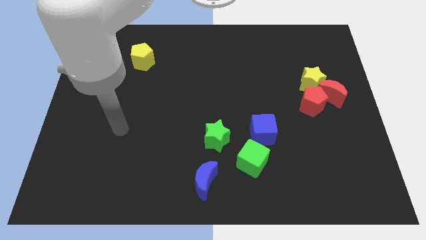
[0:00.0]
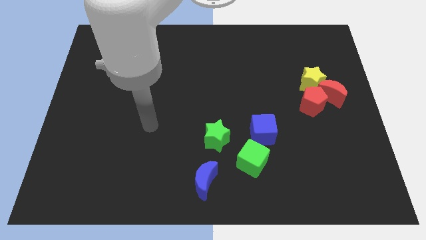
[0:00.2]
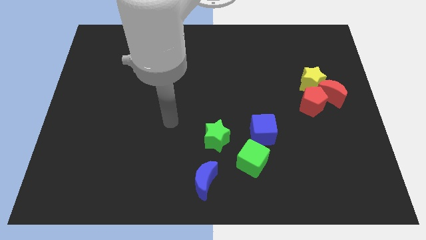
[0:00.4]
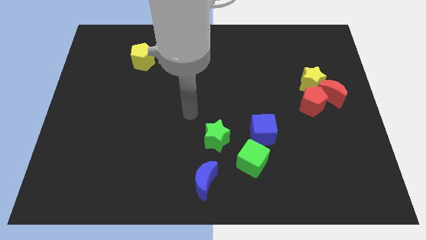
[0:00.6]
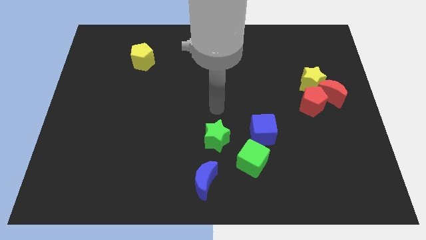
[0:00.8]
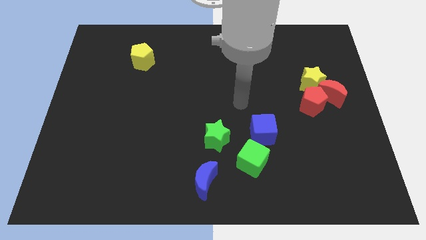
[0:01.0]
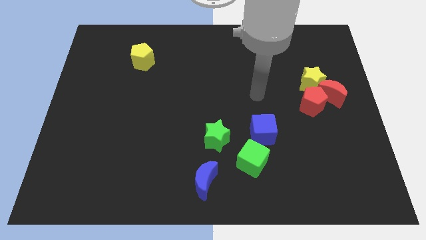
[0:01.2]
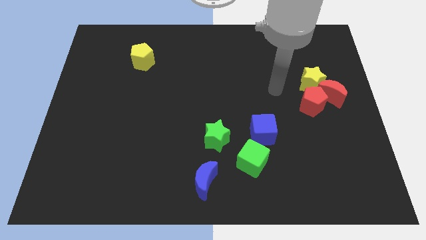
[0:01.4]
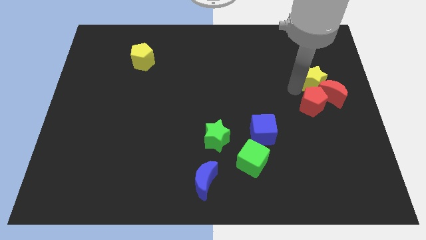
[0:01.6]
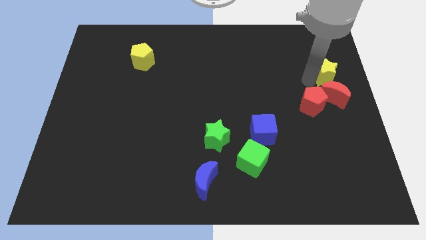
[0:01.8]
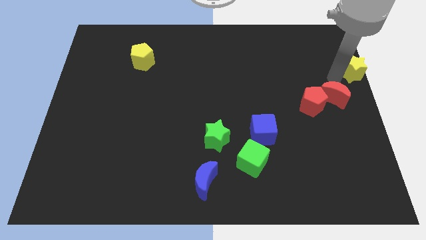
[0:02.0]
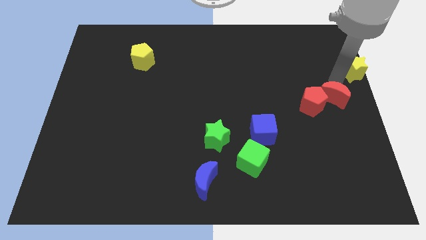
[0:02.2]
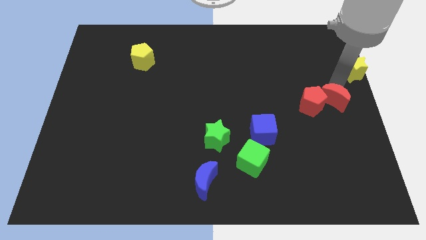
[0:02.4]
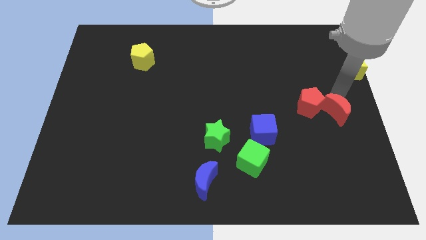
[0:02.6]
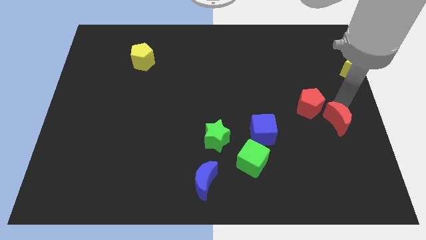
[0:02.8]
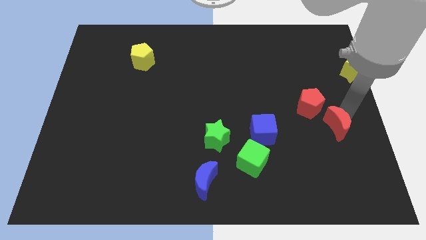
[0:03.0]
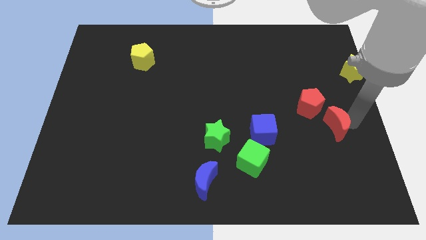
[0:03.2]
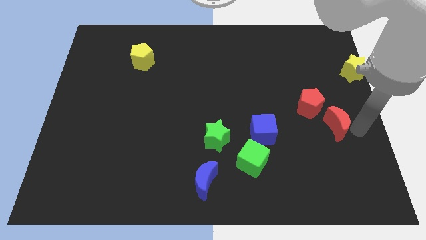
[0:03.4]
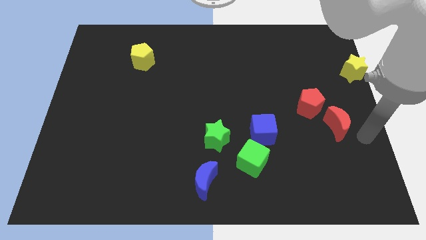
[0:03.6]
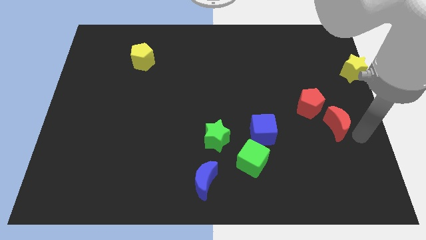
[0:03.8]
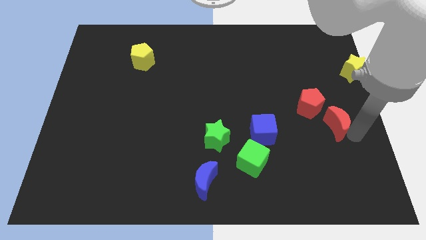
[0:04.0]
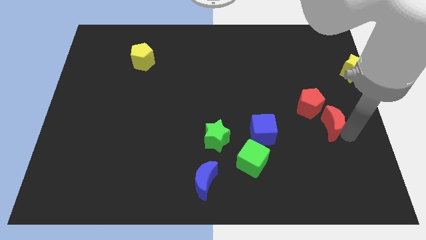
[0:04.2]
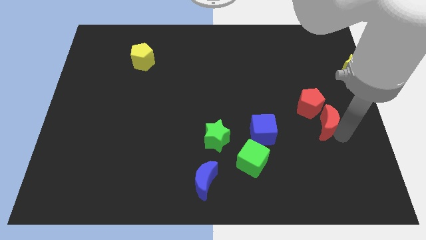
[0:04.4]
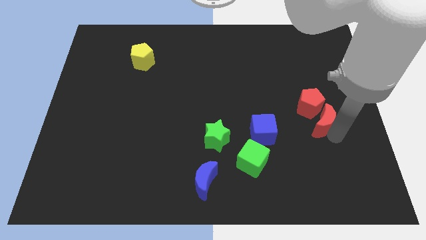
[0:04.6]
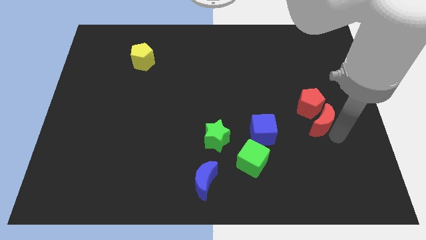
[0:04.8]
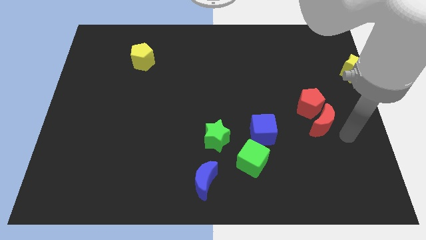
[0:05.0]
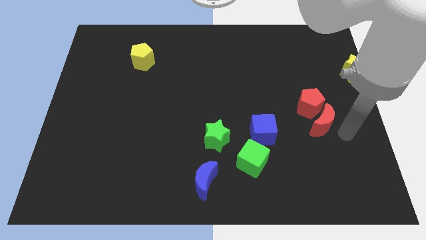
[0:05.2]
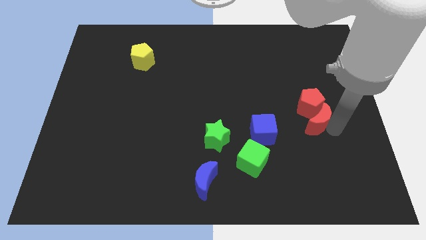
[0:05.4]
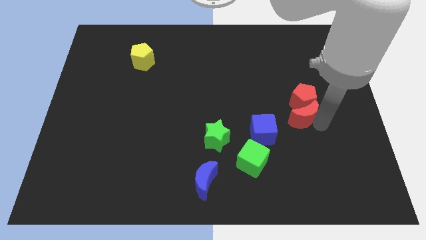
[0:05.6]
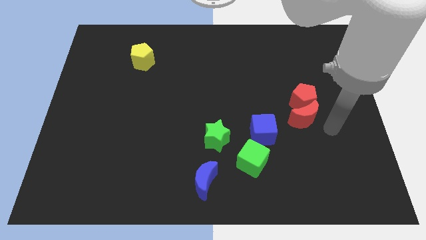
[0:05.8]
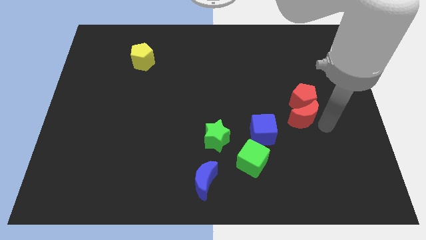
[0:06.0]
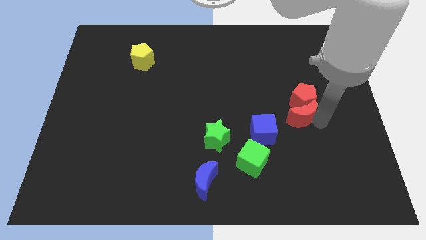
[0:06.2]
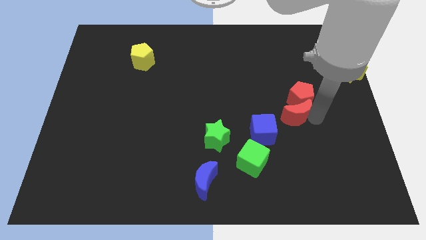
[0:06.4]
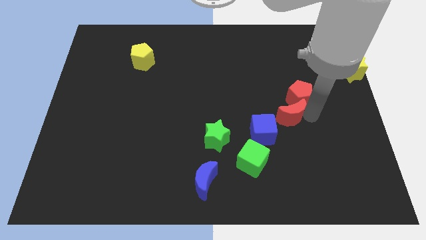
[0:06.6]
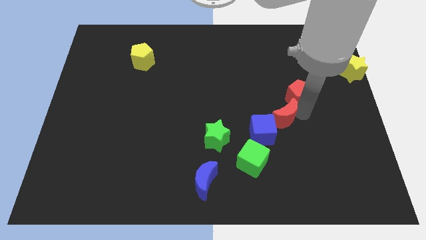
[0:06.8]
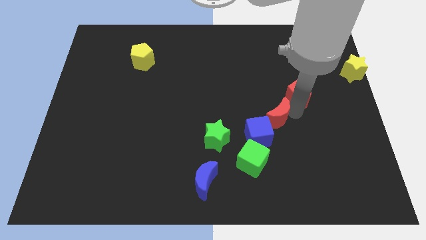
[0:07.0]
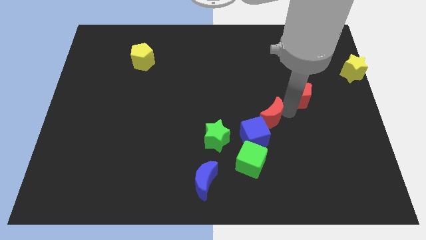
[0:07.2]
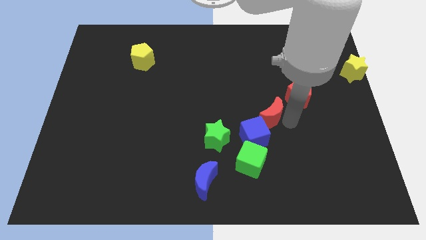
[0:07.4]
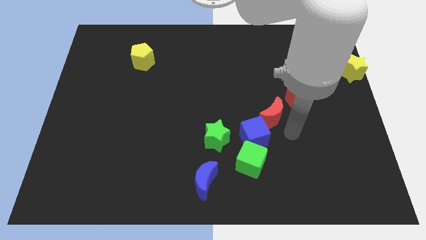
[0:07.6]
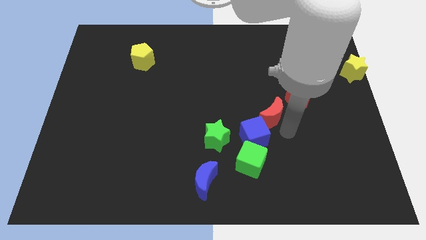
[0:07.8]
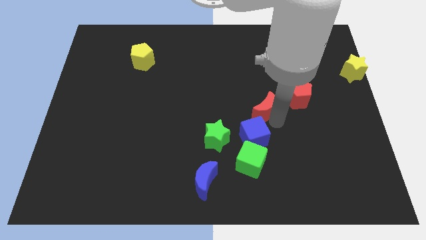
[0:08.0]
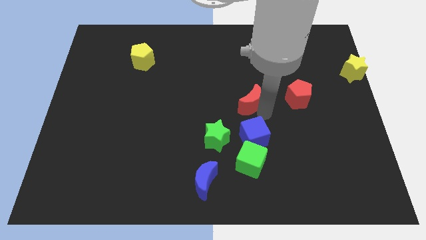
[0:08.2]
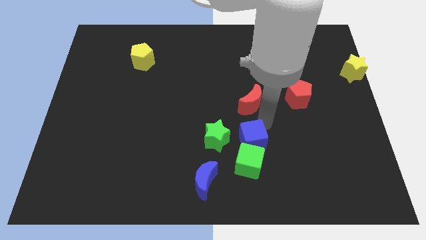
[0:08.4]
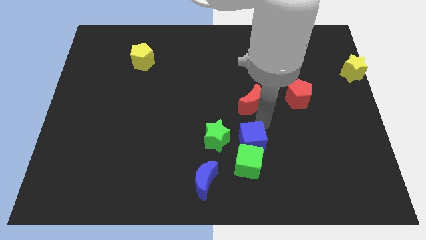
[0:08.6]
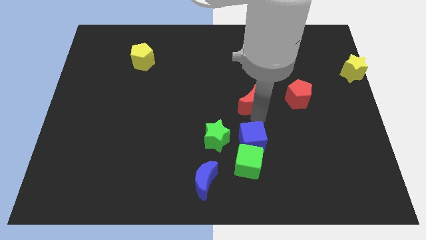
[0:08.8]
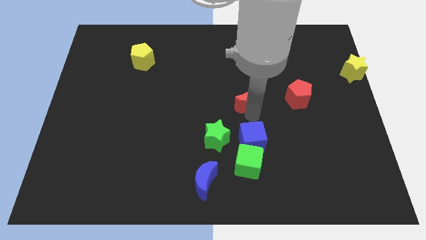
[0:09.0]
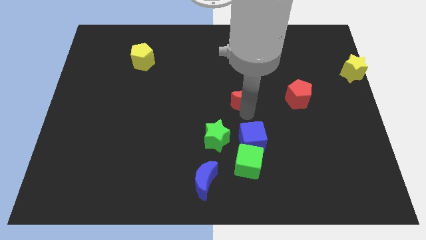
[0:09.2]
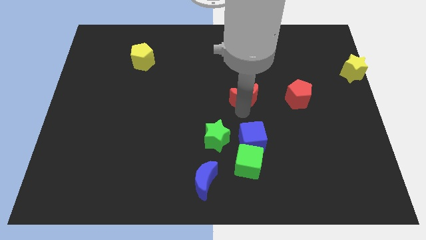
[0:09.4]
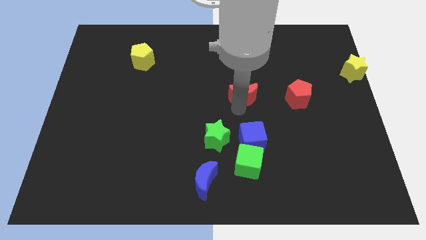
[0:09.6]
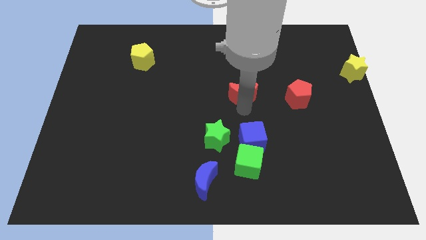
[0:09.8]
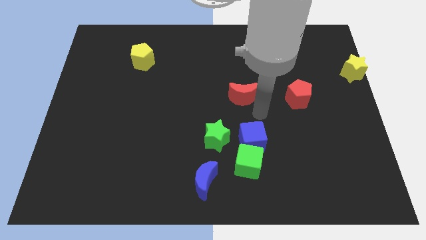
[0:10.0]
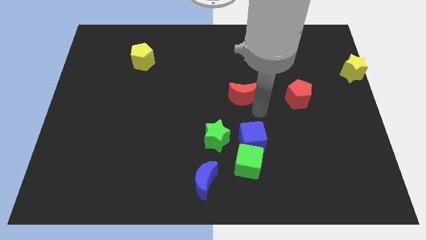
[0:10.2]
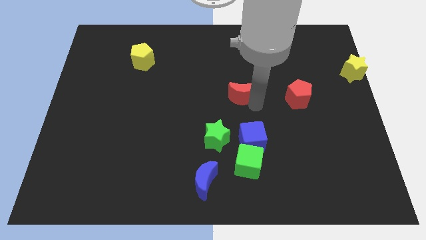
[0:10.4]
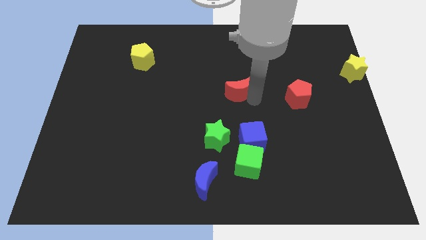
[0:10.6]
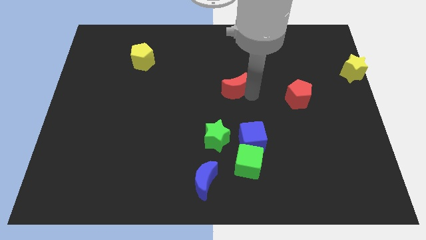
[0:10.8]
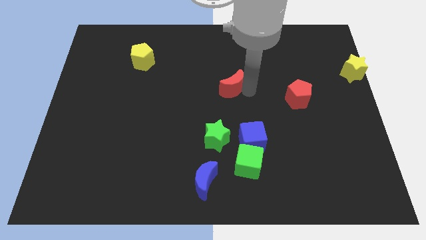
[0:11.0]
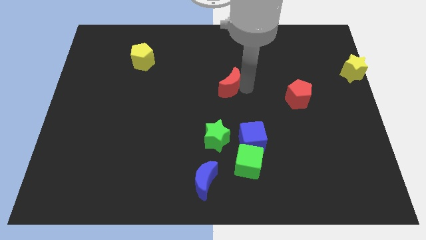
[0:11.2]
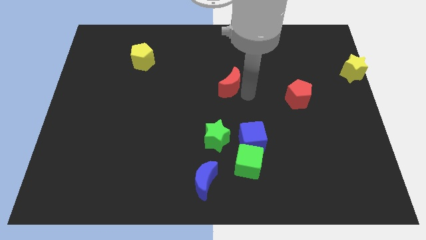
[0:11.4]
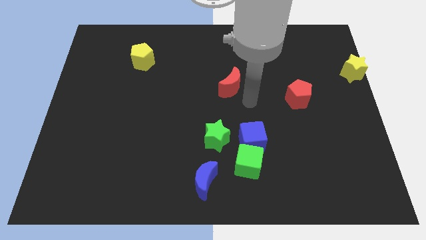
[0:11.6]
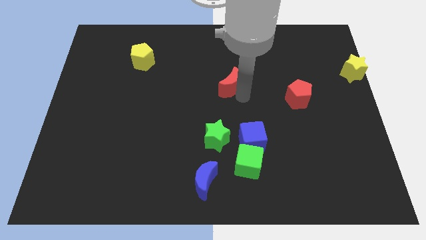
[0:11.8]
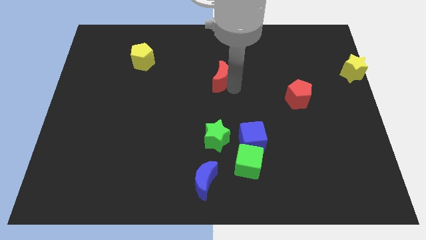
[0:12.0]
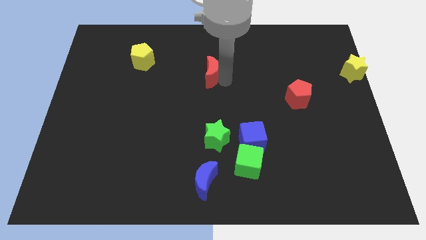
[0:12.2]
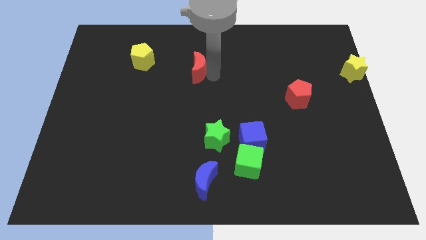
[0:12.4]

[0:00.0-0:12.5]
put the red moon to the right of the yellow pentagon

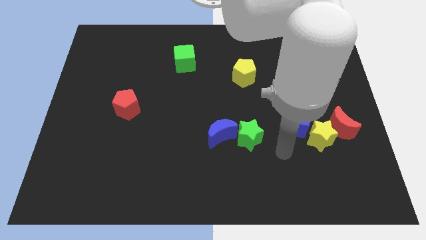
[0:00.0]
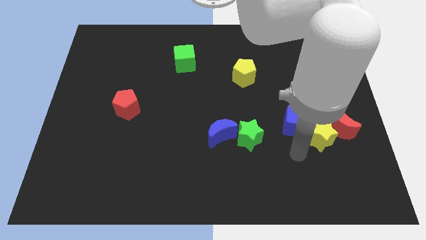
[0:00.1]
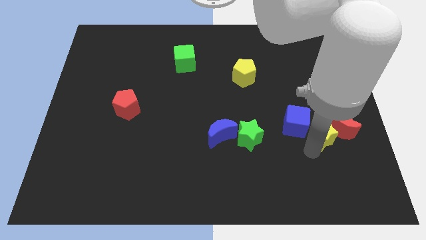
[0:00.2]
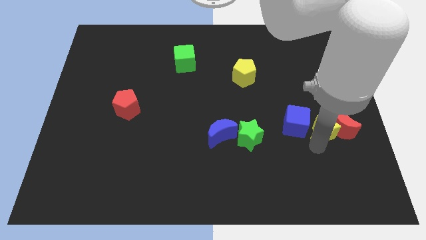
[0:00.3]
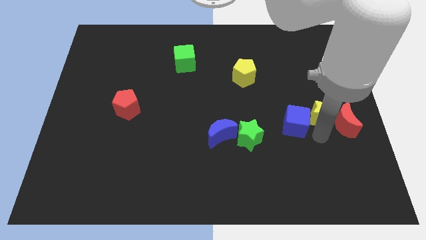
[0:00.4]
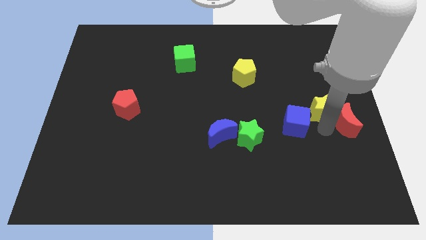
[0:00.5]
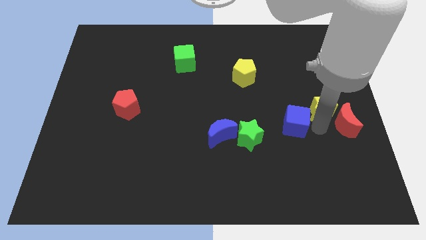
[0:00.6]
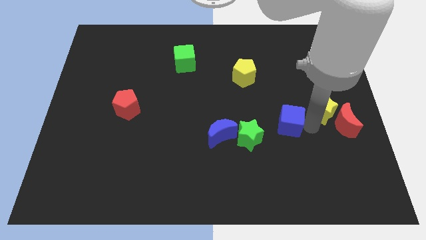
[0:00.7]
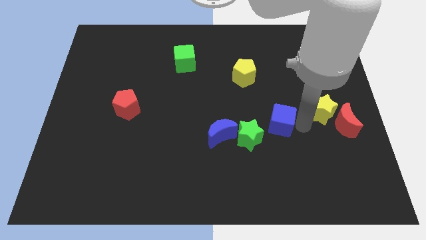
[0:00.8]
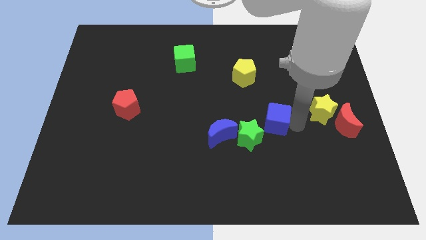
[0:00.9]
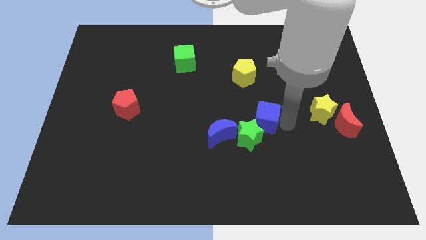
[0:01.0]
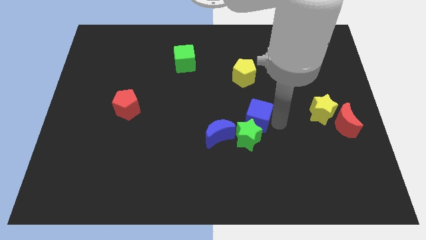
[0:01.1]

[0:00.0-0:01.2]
slide the blue cube to the top right side of the blue moon

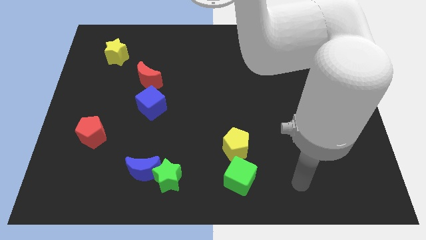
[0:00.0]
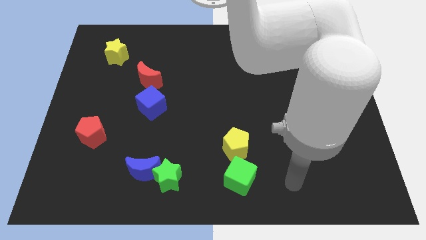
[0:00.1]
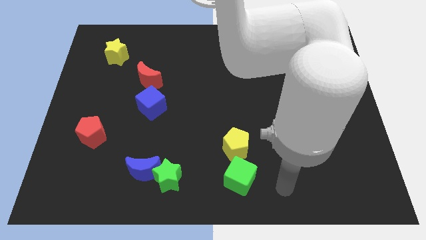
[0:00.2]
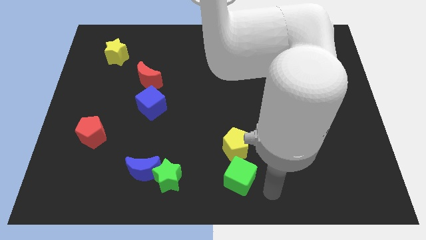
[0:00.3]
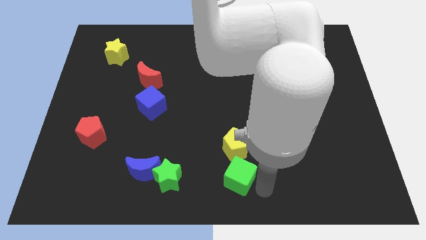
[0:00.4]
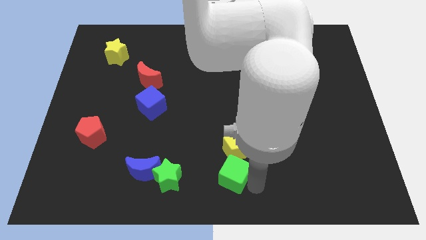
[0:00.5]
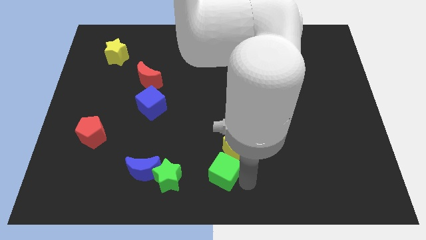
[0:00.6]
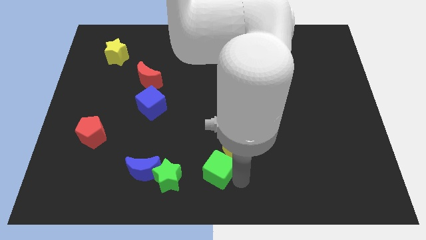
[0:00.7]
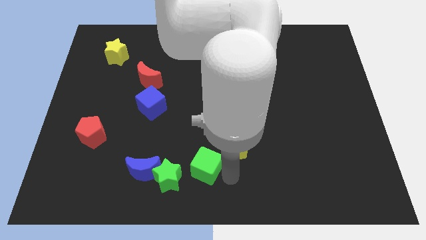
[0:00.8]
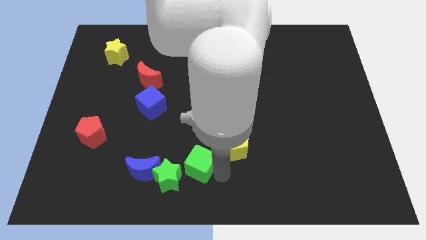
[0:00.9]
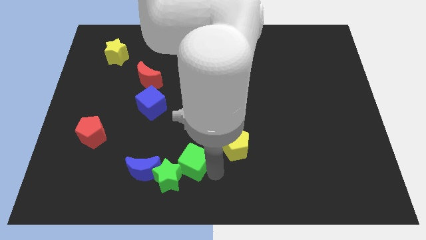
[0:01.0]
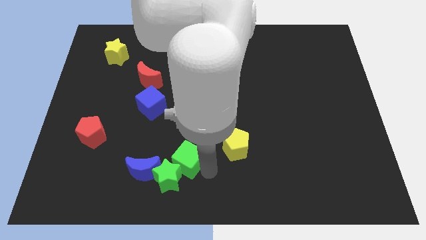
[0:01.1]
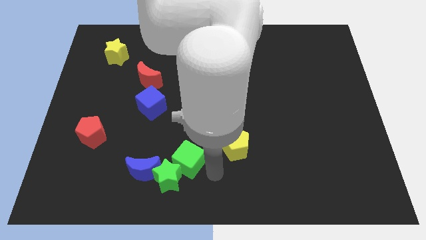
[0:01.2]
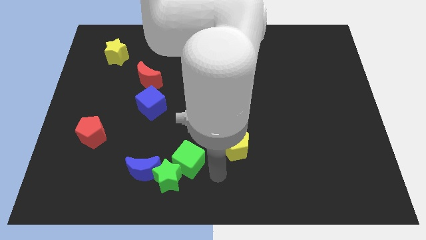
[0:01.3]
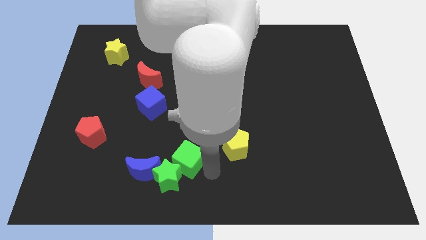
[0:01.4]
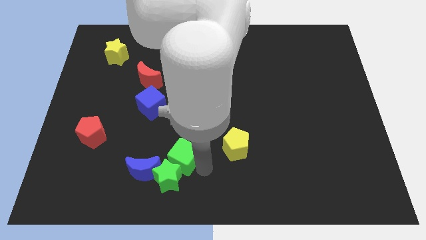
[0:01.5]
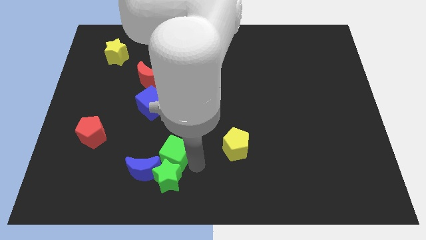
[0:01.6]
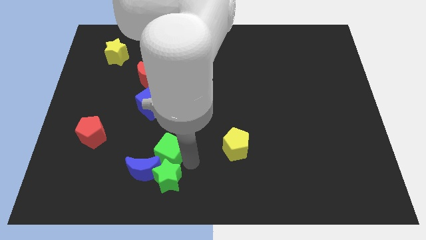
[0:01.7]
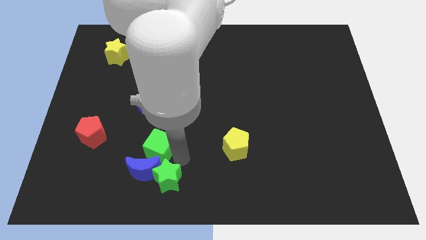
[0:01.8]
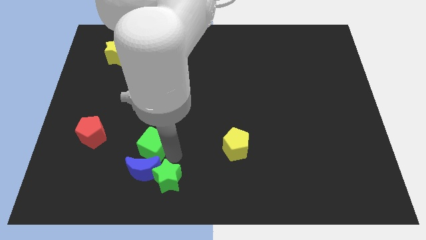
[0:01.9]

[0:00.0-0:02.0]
push the green cube to the right side of the red pentagon
